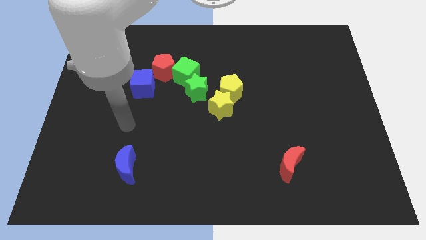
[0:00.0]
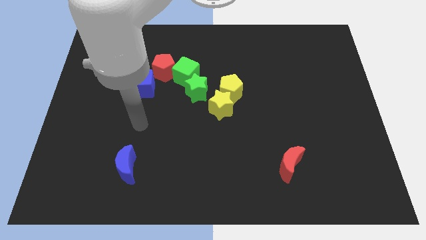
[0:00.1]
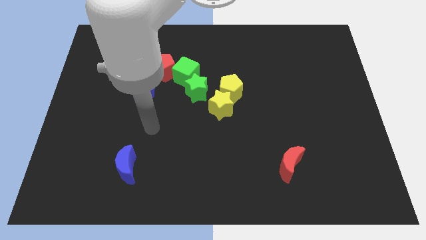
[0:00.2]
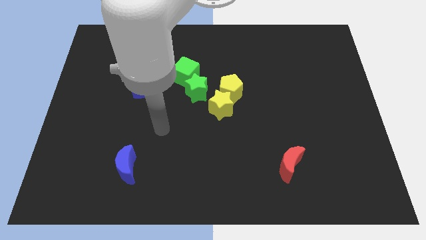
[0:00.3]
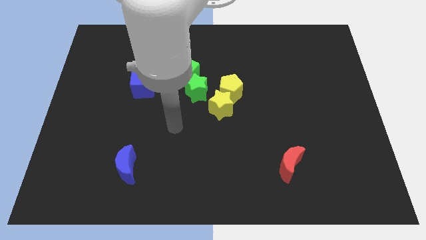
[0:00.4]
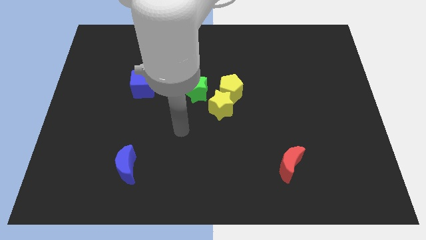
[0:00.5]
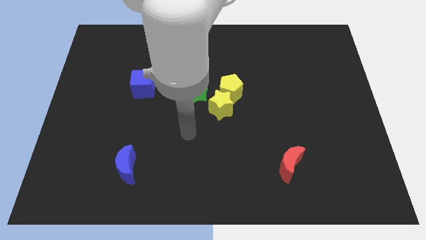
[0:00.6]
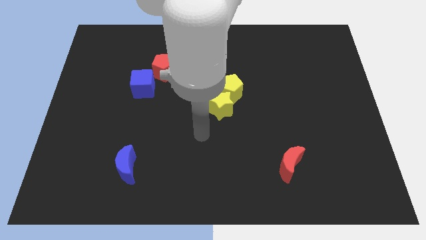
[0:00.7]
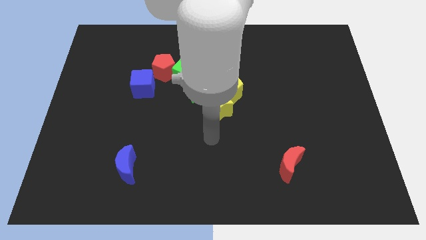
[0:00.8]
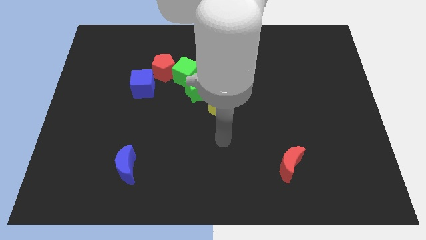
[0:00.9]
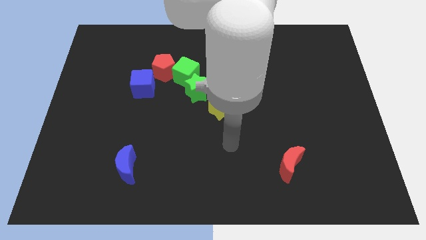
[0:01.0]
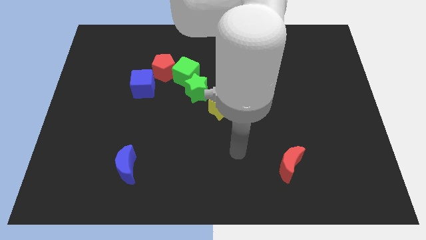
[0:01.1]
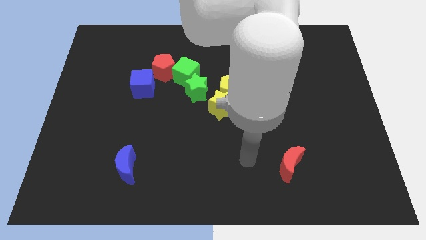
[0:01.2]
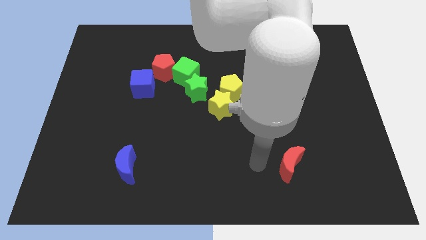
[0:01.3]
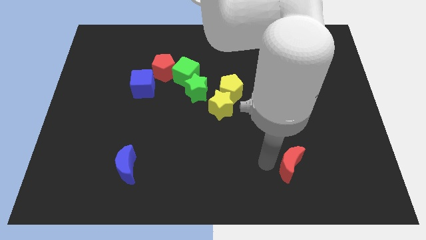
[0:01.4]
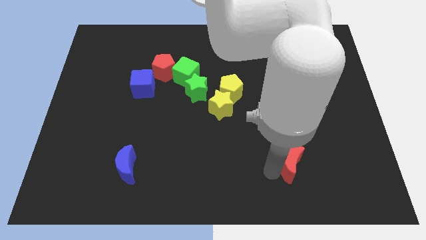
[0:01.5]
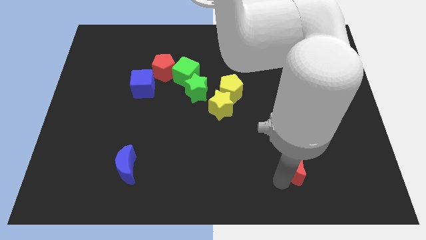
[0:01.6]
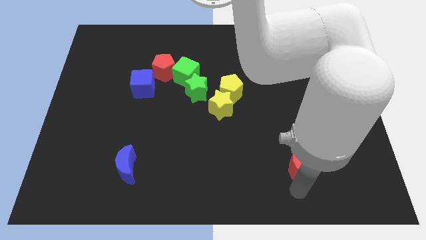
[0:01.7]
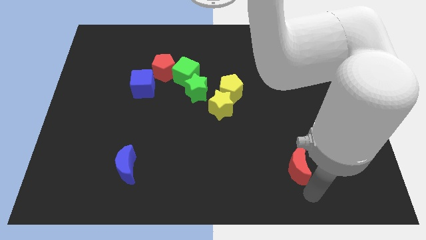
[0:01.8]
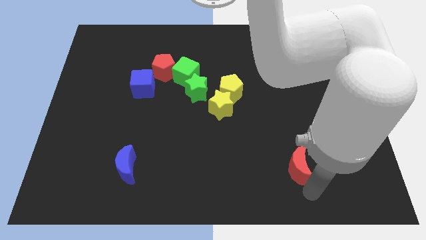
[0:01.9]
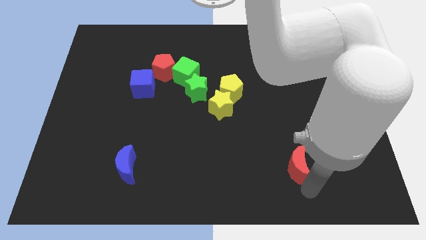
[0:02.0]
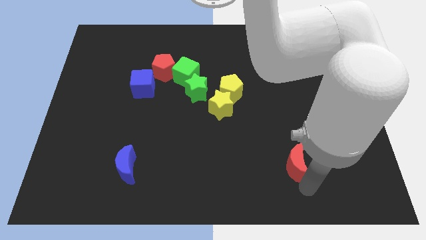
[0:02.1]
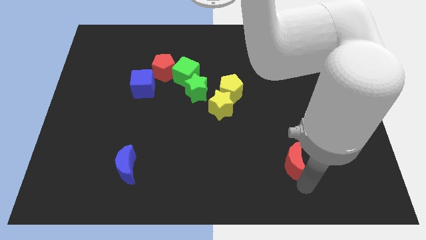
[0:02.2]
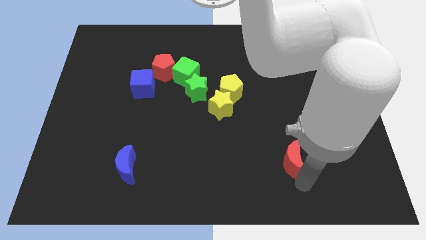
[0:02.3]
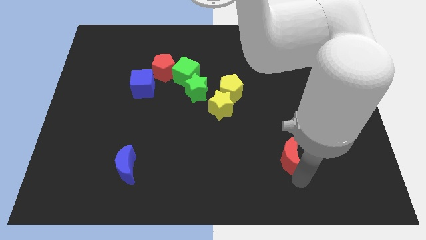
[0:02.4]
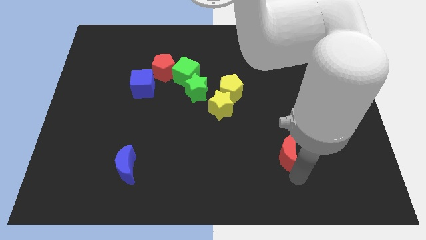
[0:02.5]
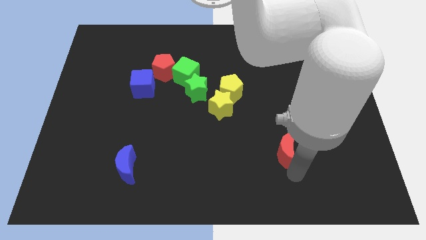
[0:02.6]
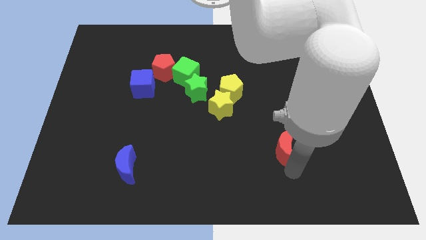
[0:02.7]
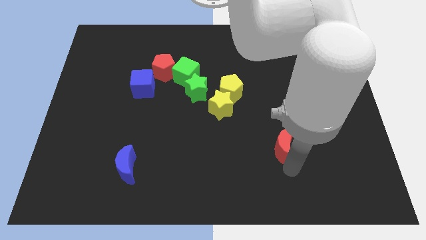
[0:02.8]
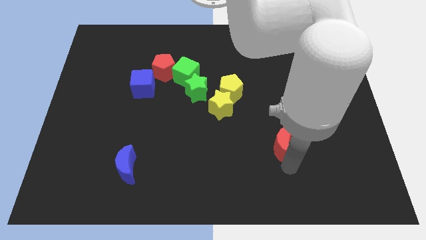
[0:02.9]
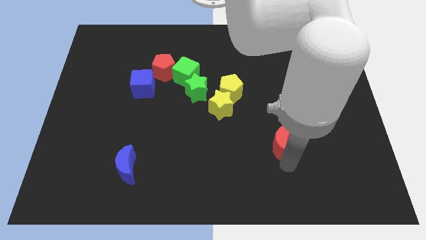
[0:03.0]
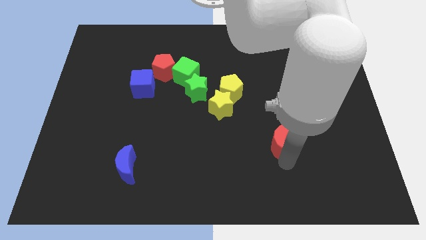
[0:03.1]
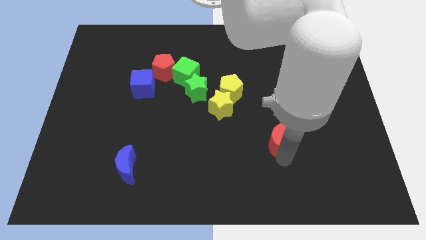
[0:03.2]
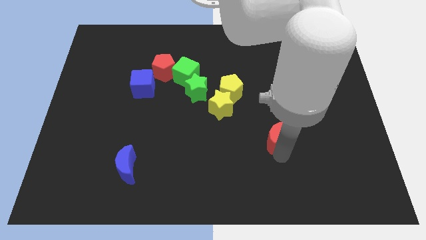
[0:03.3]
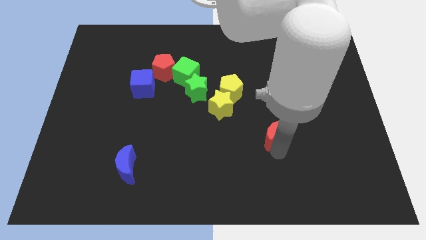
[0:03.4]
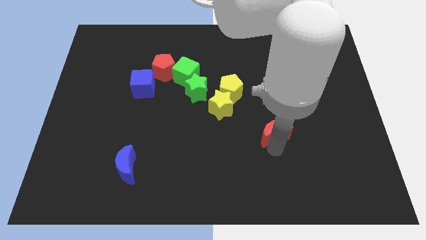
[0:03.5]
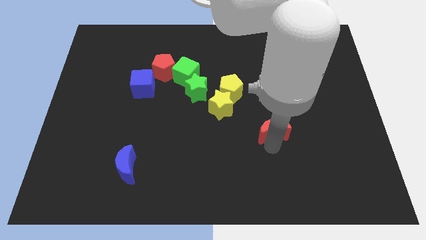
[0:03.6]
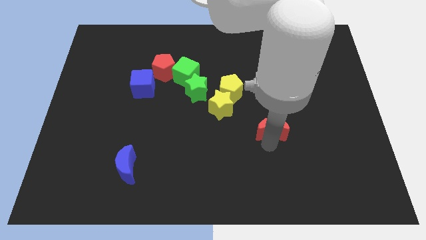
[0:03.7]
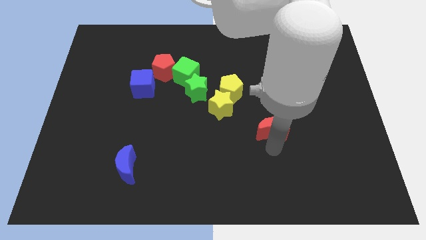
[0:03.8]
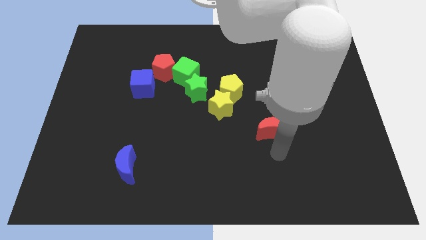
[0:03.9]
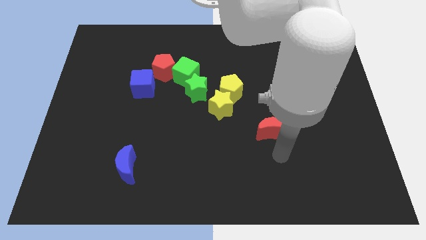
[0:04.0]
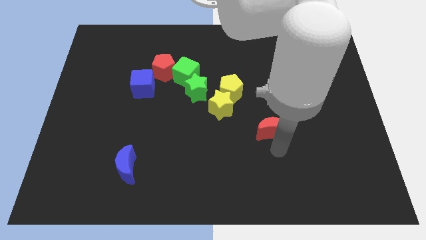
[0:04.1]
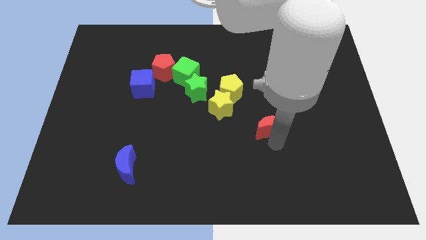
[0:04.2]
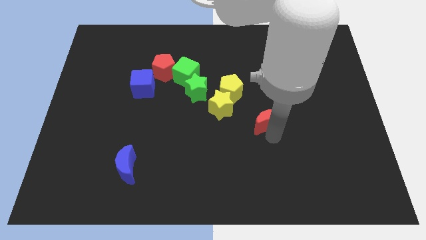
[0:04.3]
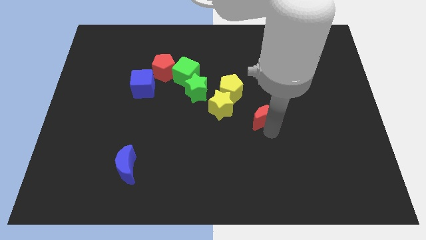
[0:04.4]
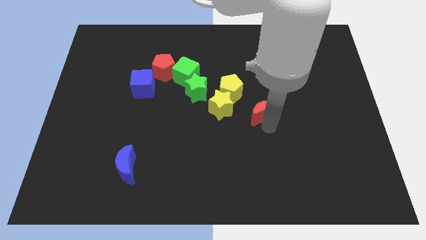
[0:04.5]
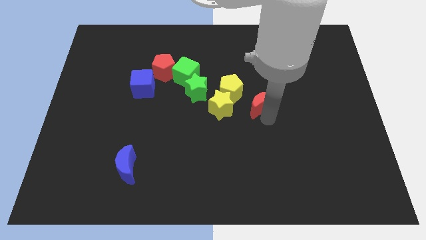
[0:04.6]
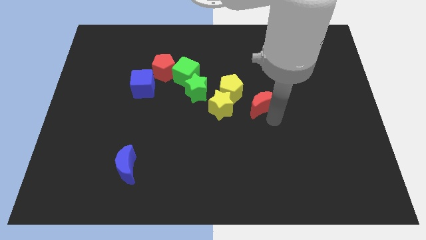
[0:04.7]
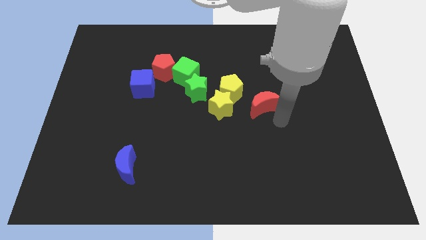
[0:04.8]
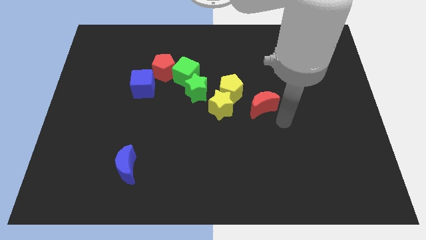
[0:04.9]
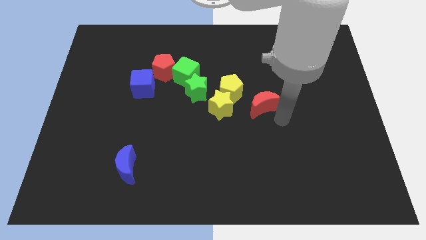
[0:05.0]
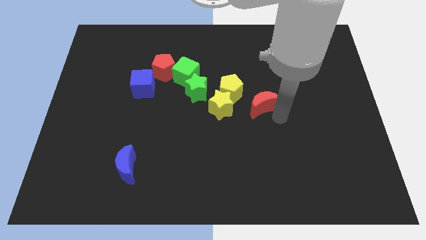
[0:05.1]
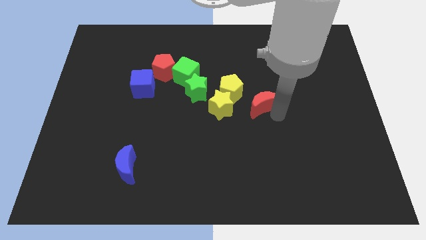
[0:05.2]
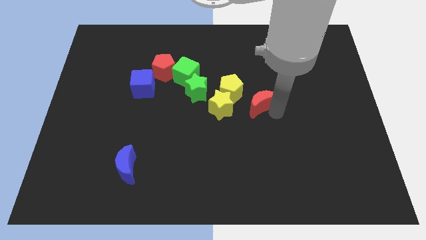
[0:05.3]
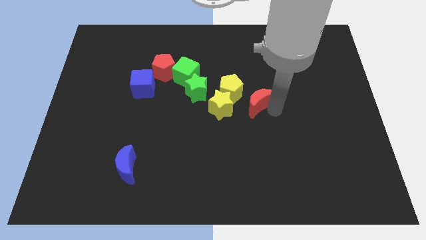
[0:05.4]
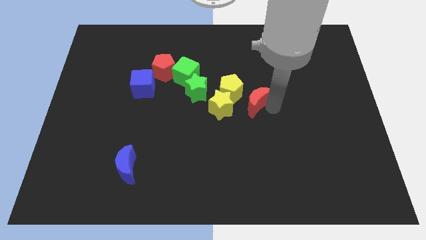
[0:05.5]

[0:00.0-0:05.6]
slide the red moon to the right side of the green star

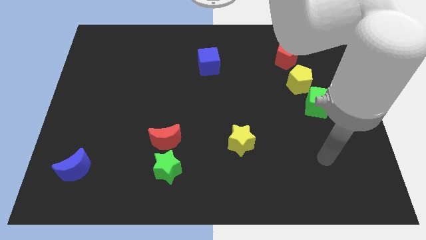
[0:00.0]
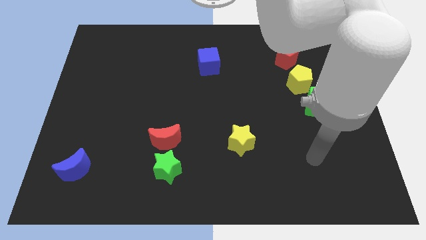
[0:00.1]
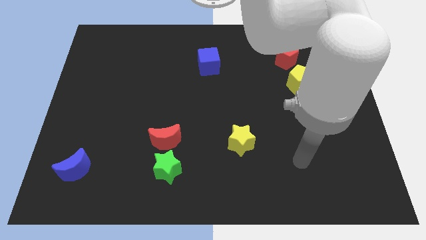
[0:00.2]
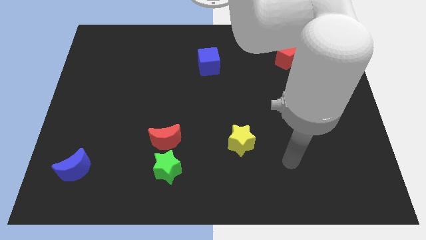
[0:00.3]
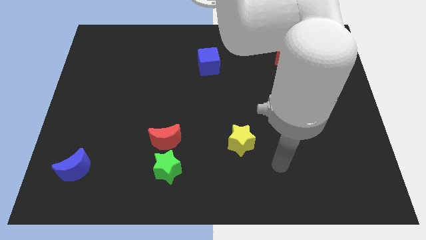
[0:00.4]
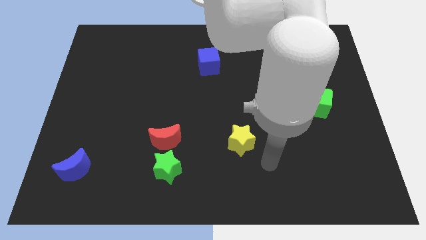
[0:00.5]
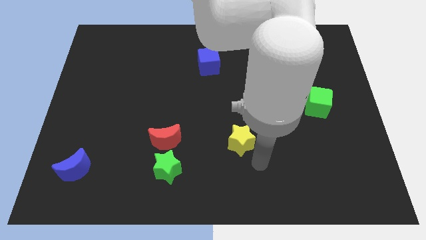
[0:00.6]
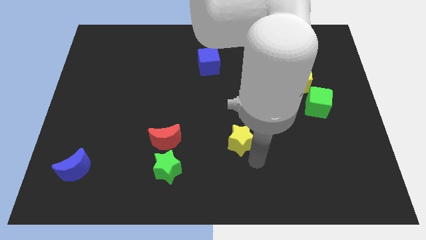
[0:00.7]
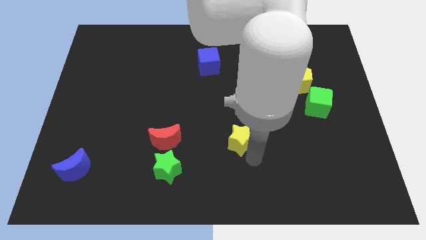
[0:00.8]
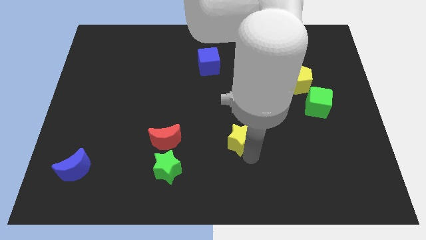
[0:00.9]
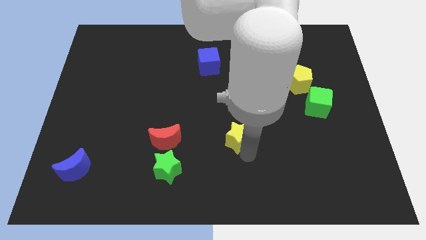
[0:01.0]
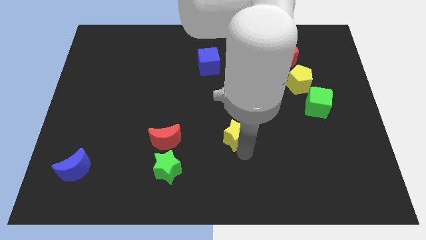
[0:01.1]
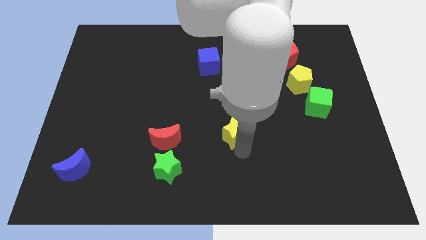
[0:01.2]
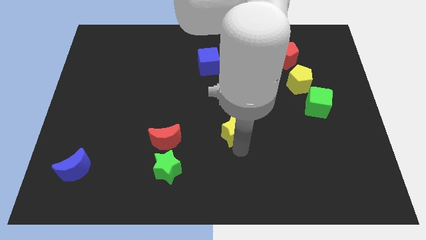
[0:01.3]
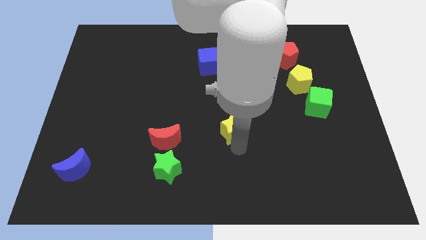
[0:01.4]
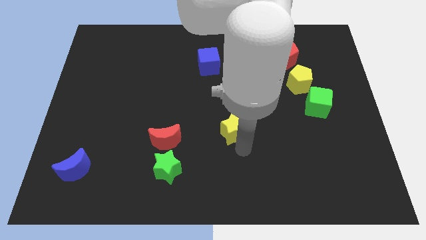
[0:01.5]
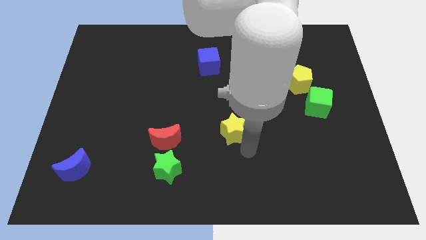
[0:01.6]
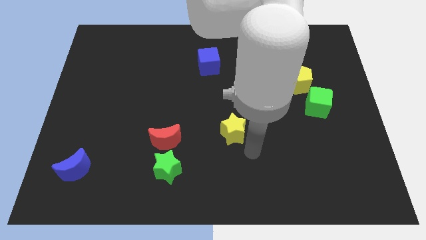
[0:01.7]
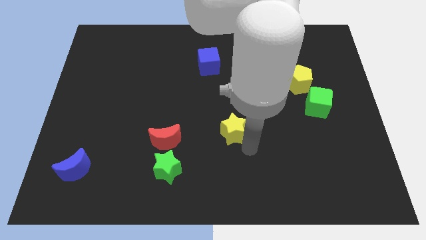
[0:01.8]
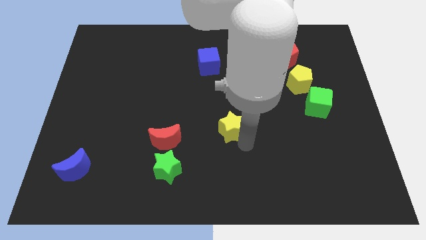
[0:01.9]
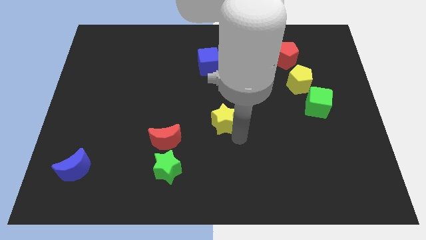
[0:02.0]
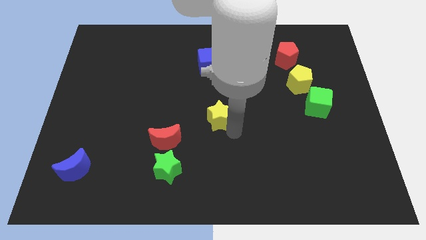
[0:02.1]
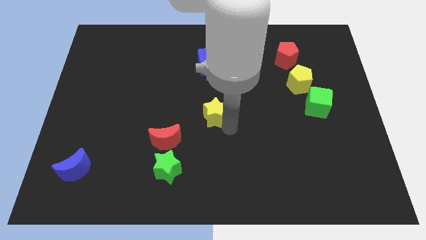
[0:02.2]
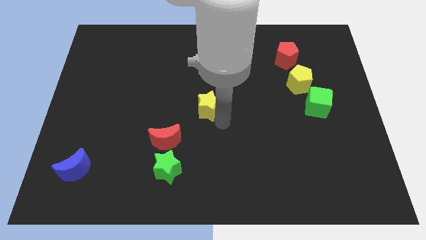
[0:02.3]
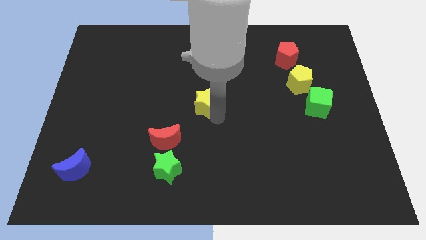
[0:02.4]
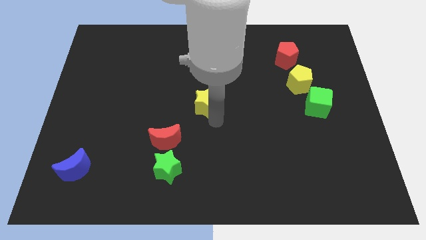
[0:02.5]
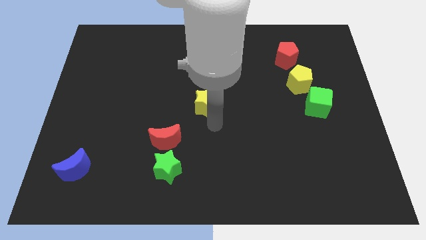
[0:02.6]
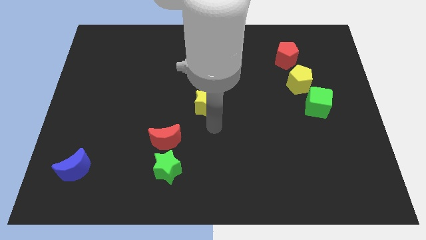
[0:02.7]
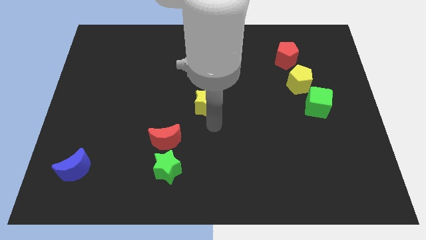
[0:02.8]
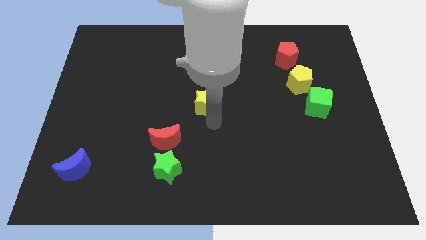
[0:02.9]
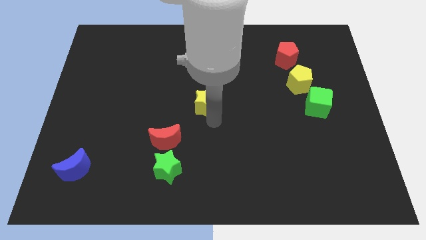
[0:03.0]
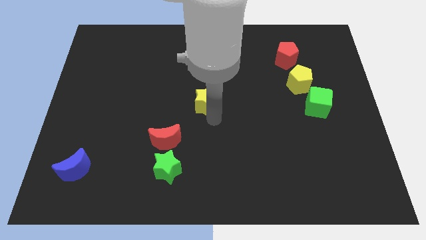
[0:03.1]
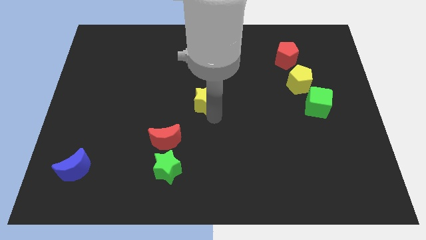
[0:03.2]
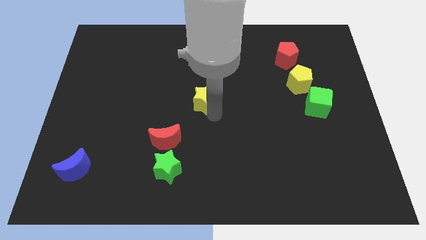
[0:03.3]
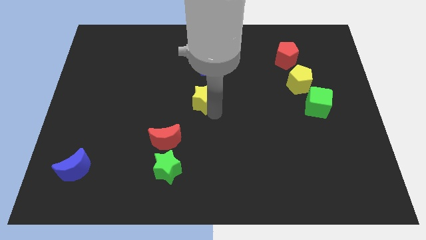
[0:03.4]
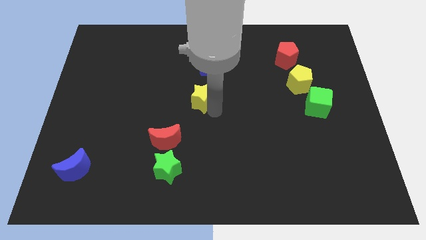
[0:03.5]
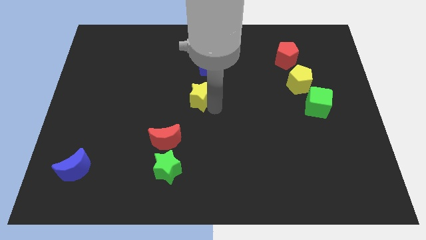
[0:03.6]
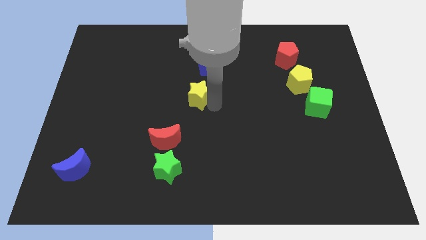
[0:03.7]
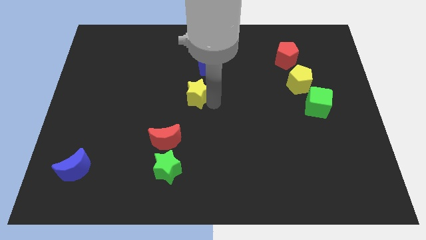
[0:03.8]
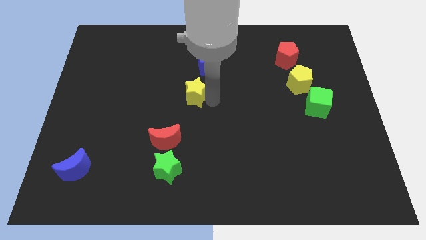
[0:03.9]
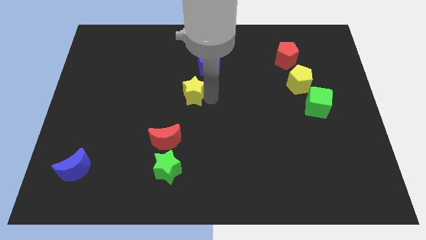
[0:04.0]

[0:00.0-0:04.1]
slide the yellow star to the bottom left of the blue cube
